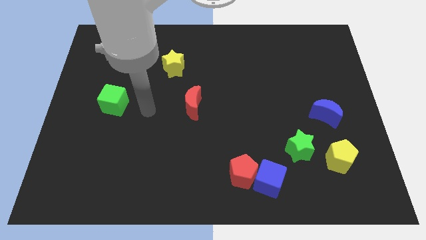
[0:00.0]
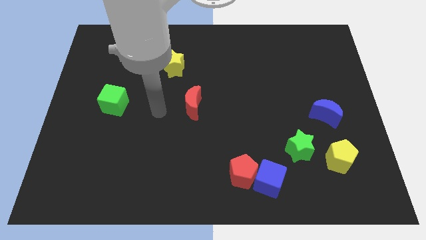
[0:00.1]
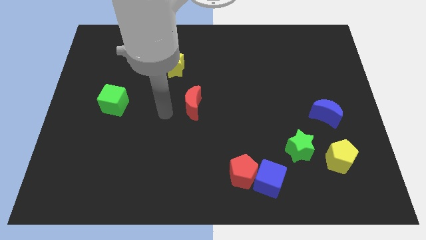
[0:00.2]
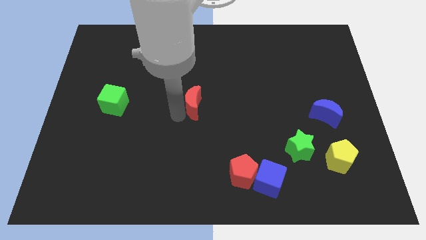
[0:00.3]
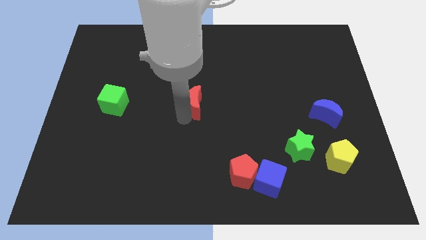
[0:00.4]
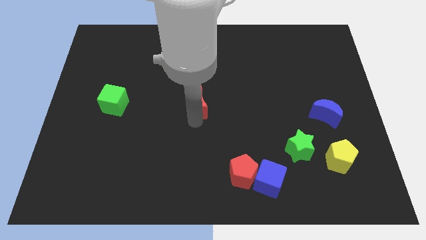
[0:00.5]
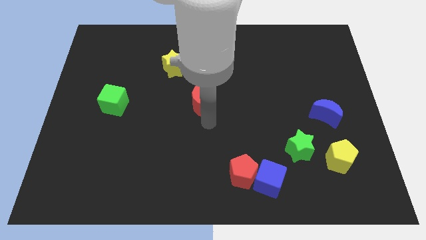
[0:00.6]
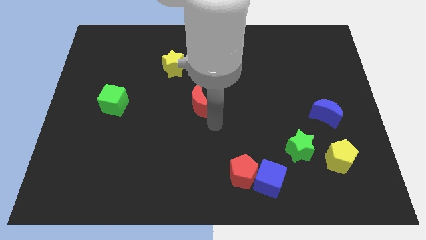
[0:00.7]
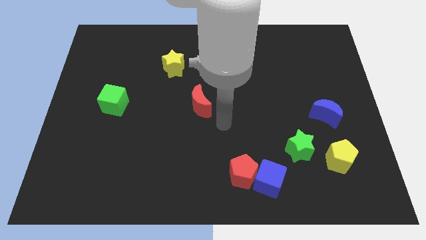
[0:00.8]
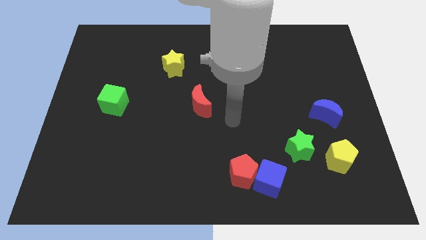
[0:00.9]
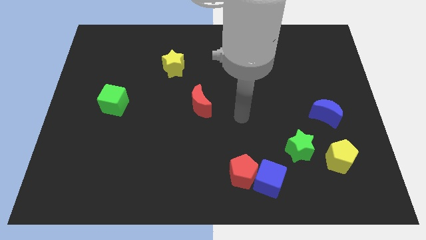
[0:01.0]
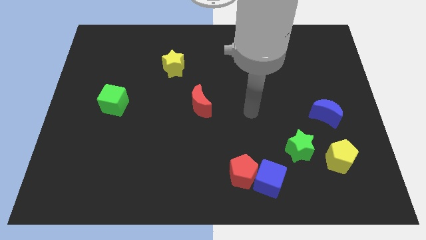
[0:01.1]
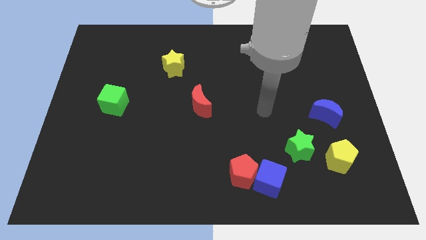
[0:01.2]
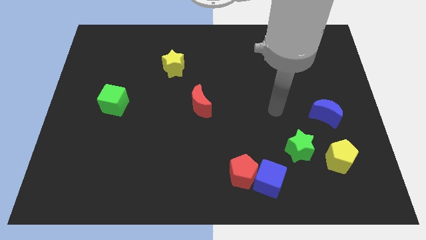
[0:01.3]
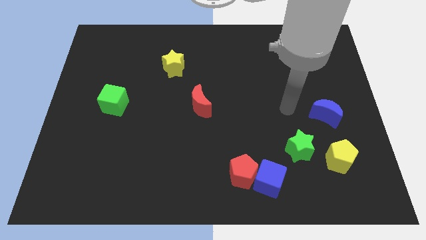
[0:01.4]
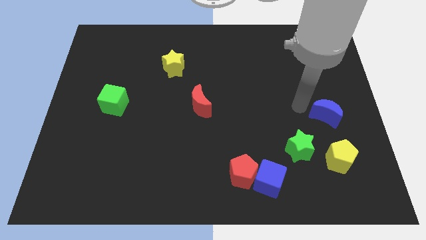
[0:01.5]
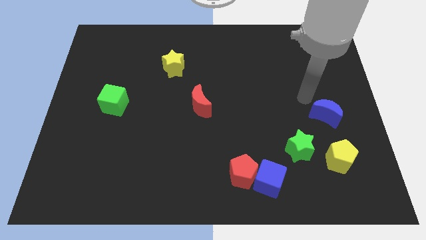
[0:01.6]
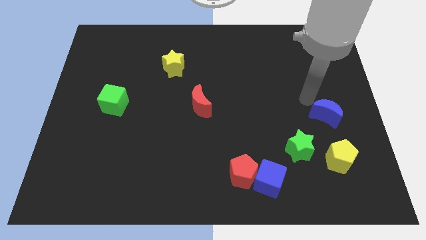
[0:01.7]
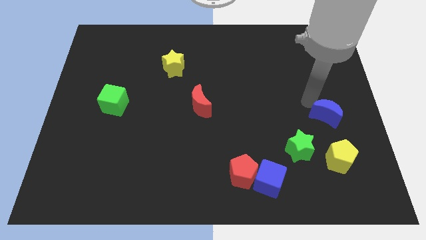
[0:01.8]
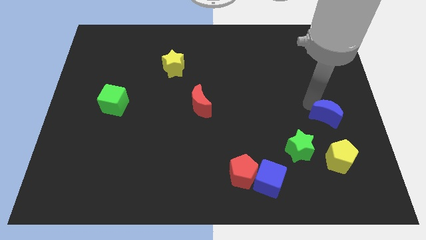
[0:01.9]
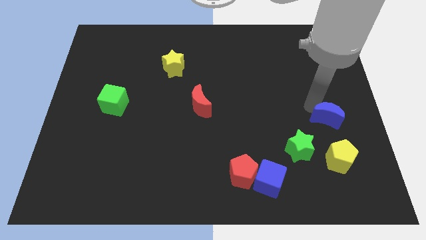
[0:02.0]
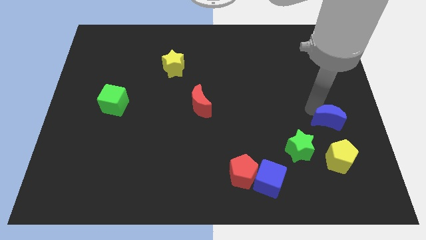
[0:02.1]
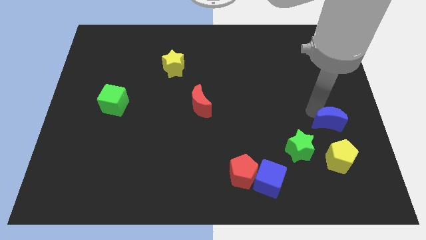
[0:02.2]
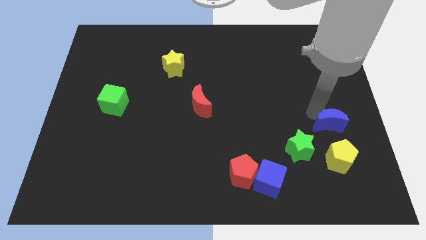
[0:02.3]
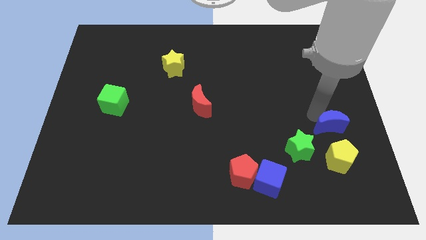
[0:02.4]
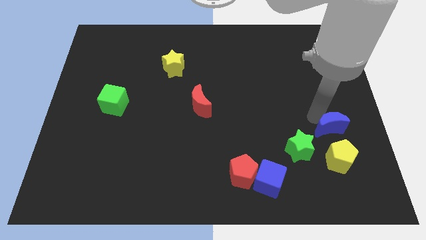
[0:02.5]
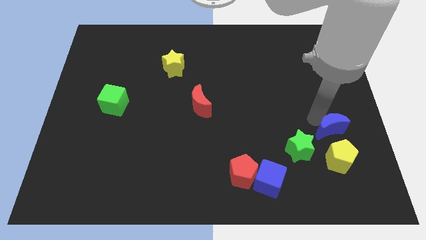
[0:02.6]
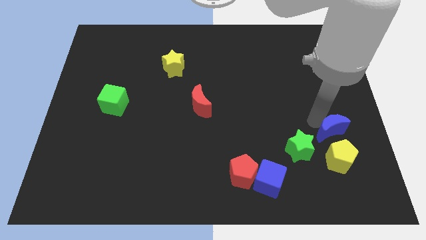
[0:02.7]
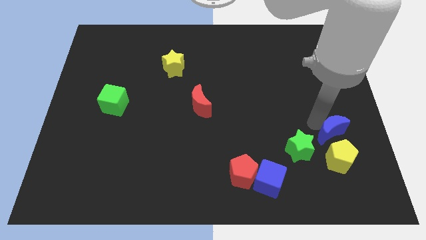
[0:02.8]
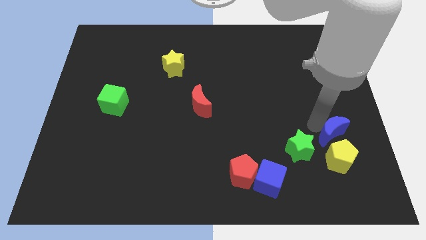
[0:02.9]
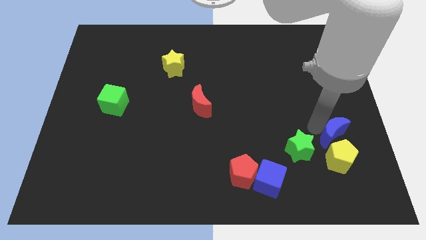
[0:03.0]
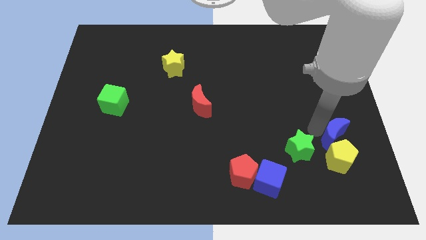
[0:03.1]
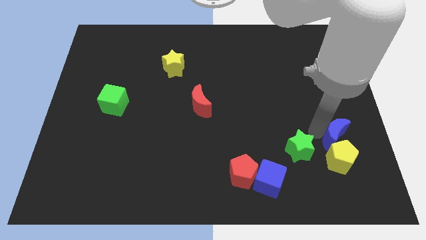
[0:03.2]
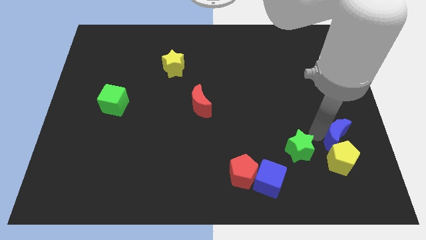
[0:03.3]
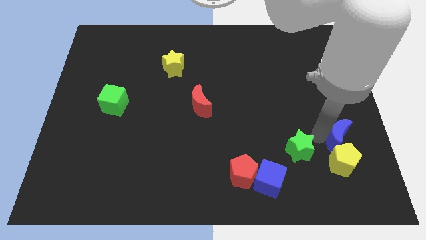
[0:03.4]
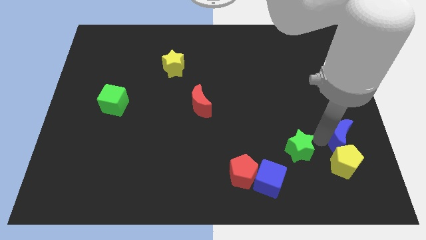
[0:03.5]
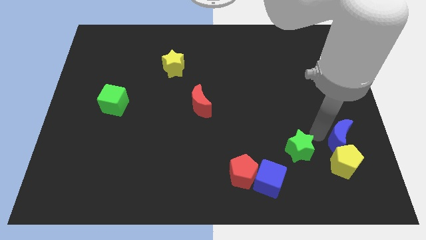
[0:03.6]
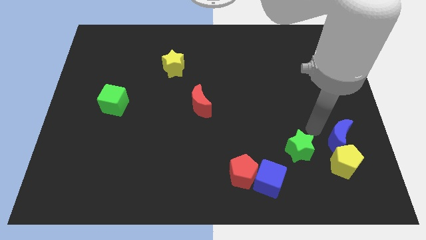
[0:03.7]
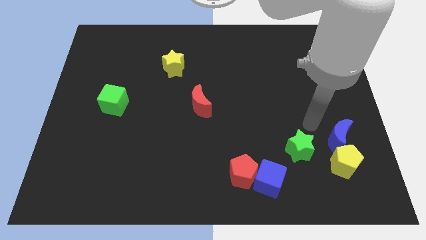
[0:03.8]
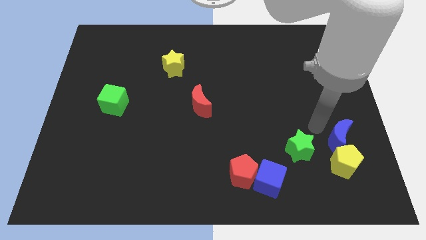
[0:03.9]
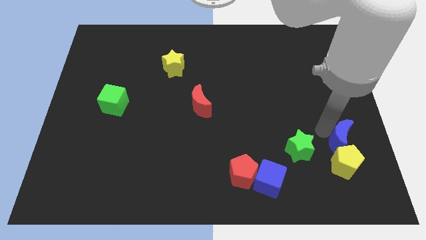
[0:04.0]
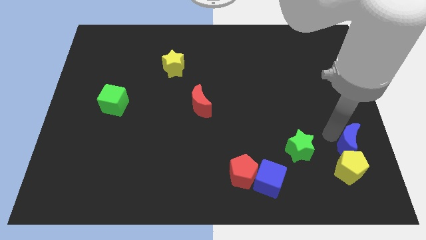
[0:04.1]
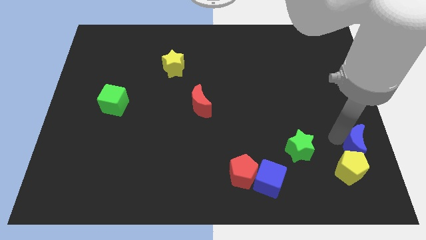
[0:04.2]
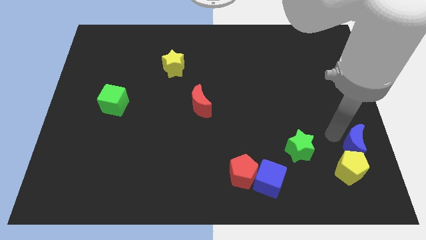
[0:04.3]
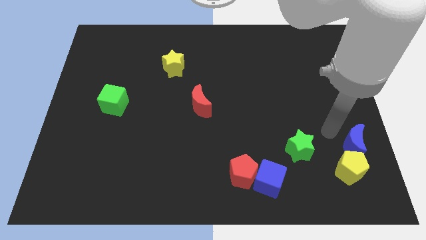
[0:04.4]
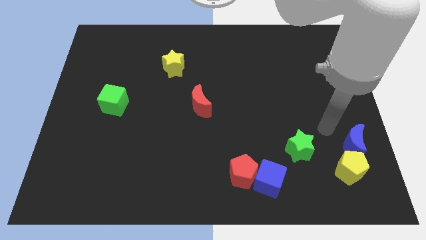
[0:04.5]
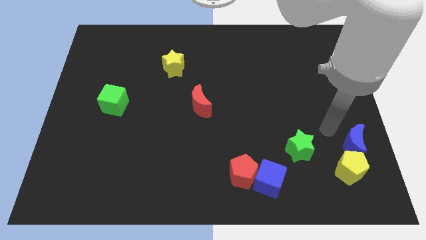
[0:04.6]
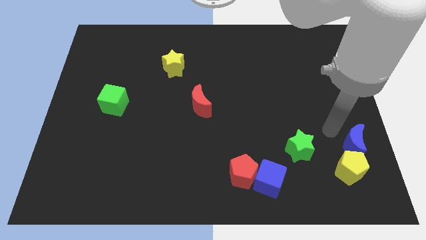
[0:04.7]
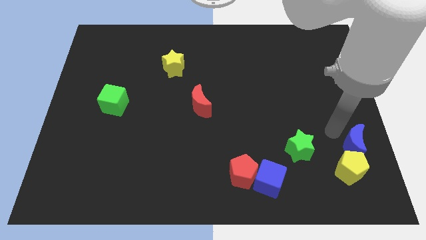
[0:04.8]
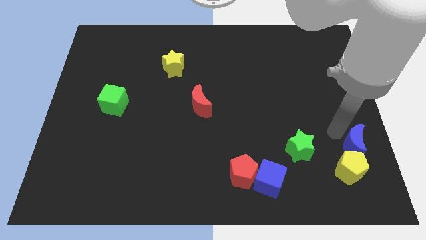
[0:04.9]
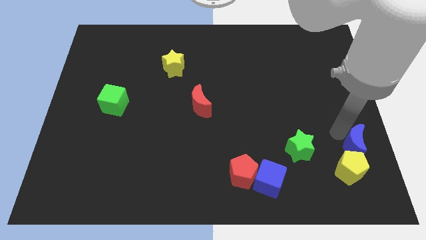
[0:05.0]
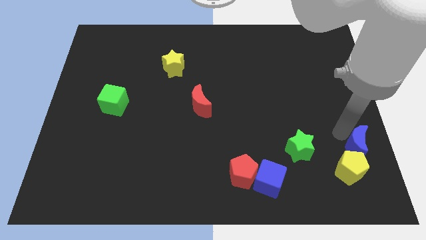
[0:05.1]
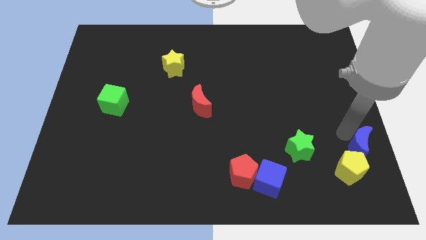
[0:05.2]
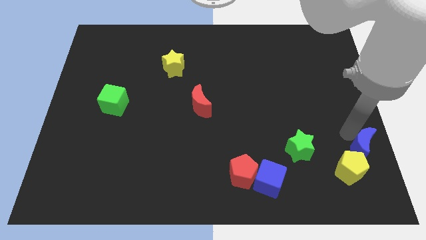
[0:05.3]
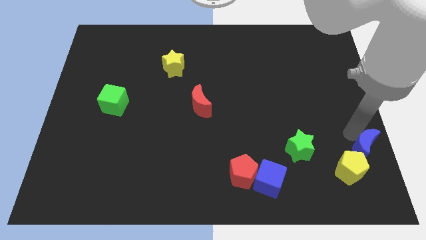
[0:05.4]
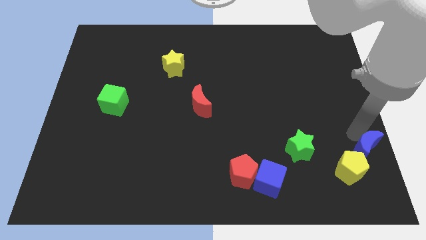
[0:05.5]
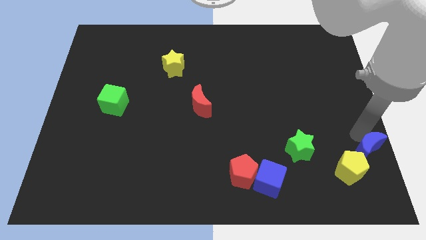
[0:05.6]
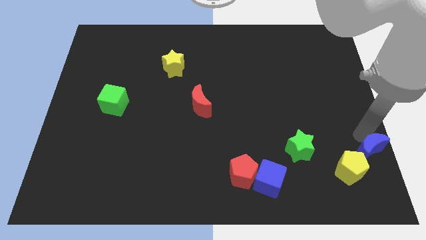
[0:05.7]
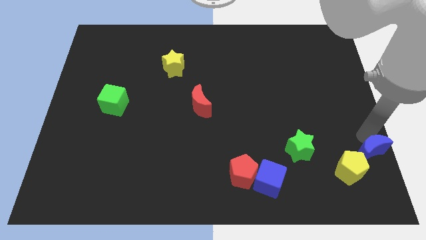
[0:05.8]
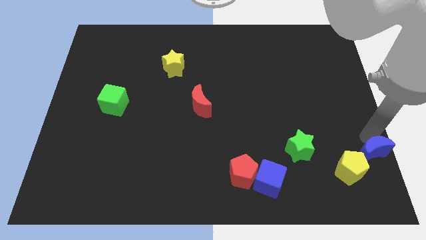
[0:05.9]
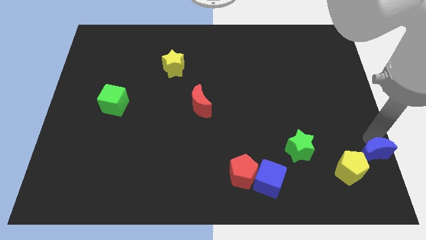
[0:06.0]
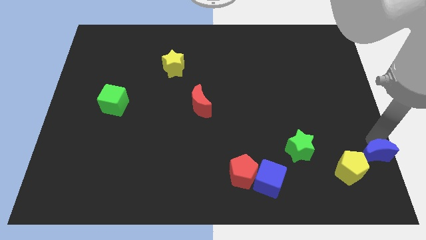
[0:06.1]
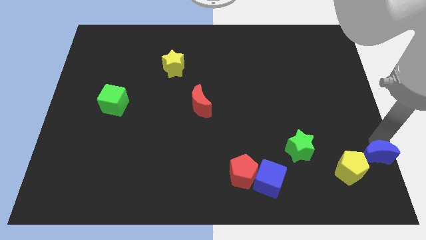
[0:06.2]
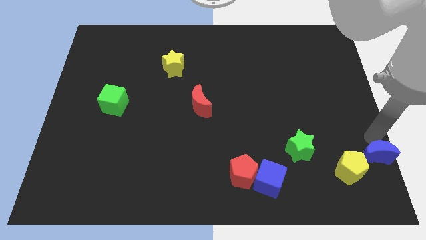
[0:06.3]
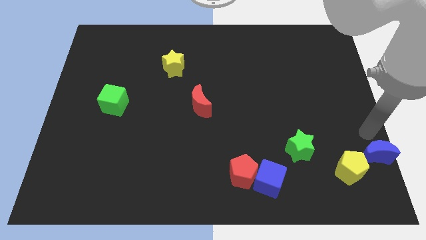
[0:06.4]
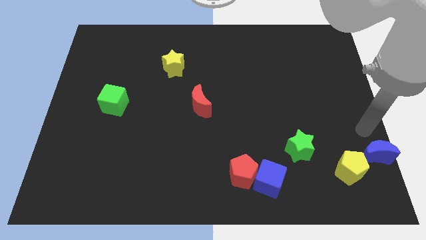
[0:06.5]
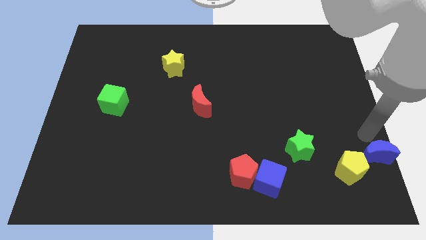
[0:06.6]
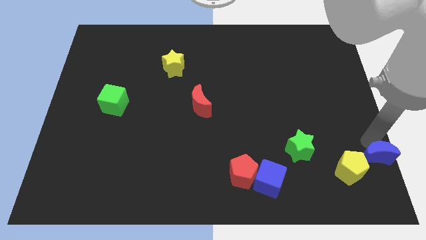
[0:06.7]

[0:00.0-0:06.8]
move the blue moon to the bottom right of the board
